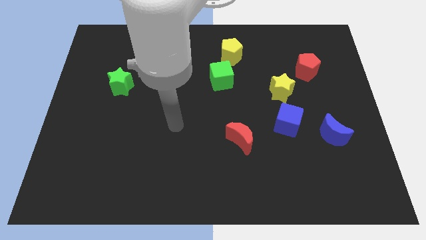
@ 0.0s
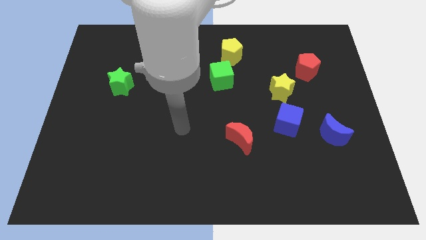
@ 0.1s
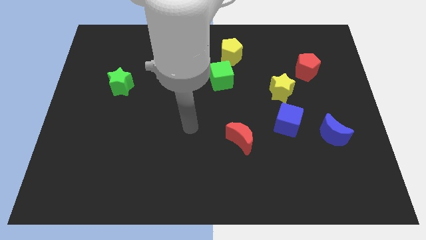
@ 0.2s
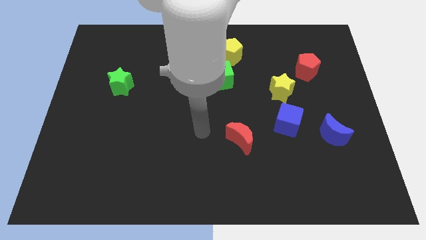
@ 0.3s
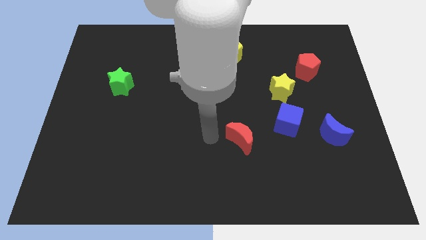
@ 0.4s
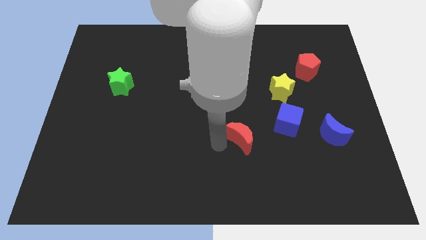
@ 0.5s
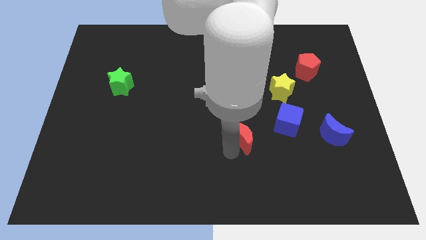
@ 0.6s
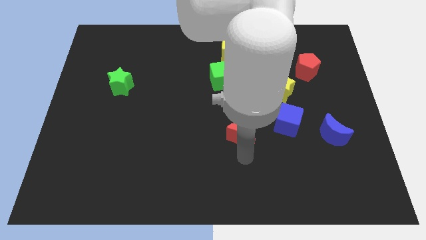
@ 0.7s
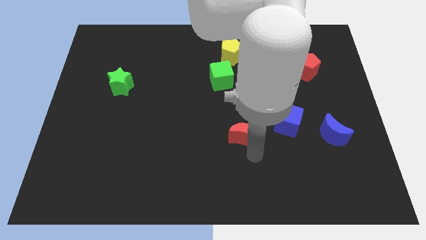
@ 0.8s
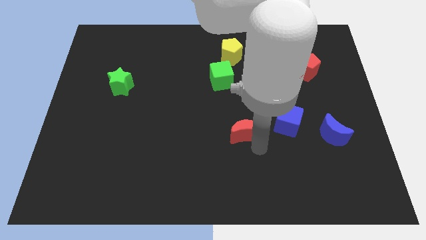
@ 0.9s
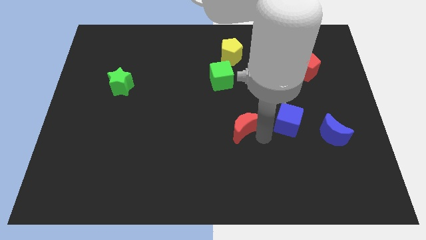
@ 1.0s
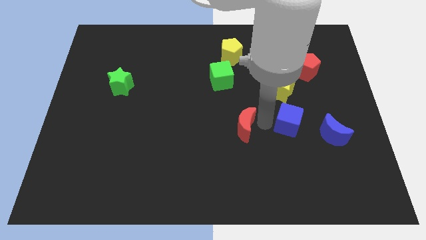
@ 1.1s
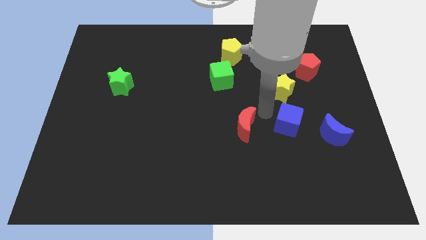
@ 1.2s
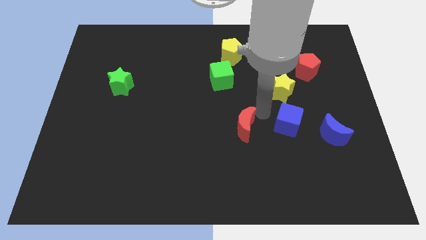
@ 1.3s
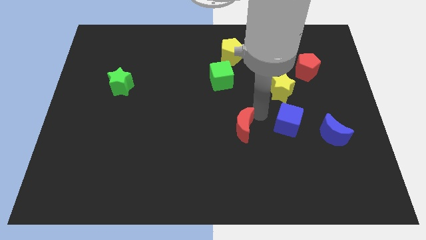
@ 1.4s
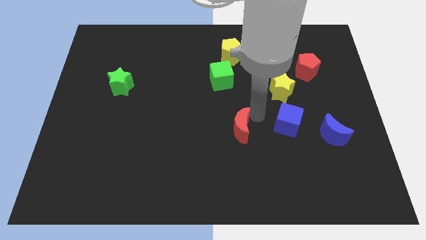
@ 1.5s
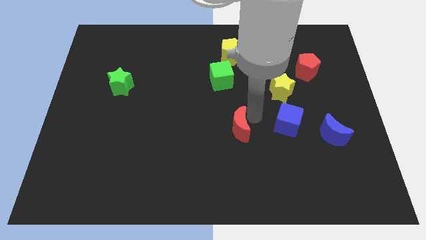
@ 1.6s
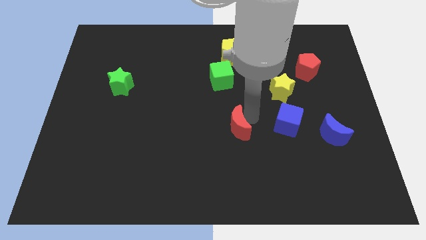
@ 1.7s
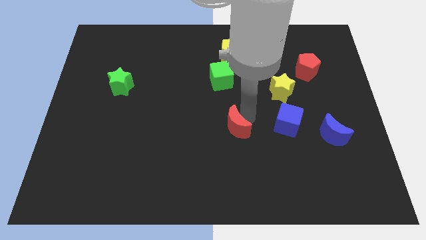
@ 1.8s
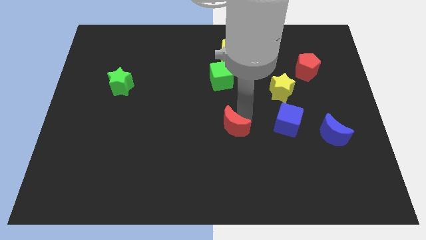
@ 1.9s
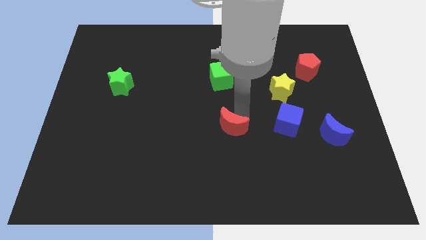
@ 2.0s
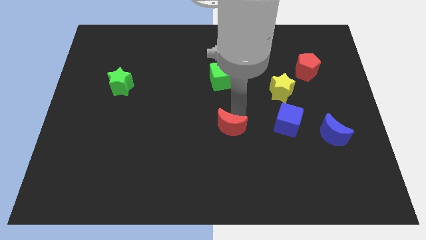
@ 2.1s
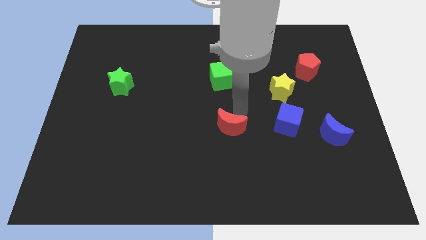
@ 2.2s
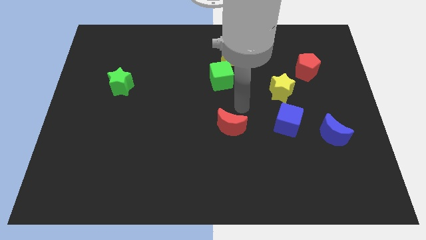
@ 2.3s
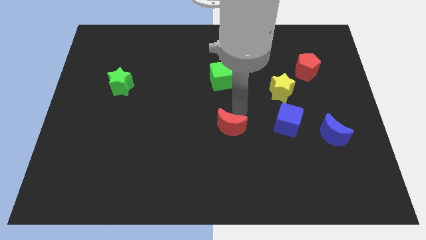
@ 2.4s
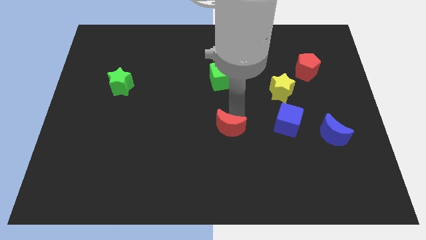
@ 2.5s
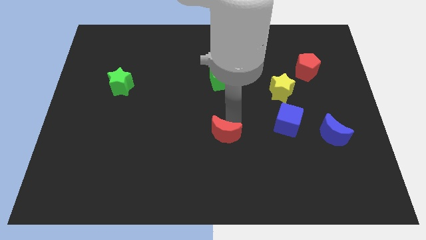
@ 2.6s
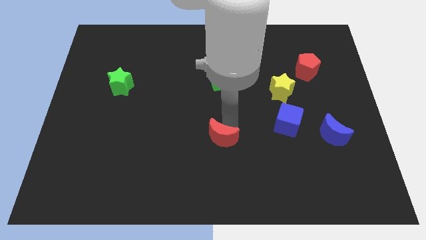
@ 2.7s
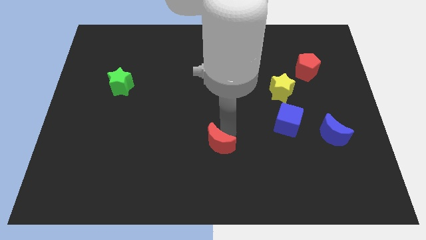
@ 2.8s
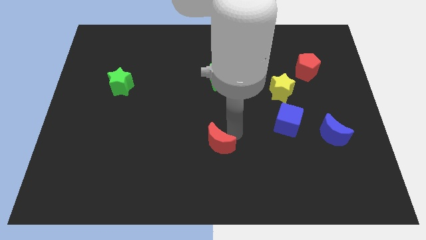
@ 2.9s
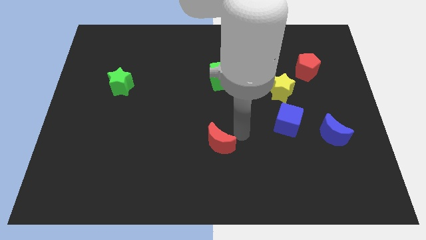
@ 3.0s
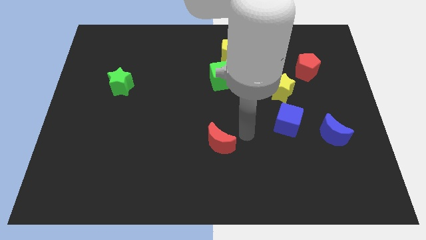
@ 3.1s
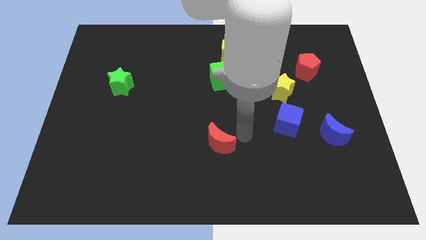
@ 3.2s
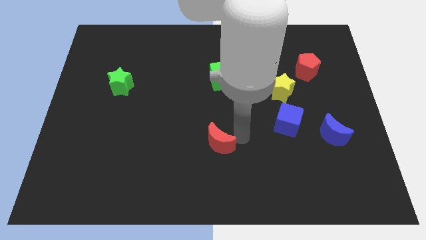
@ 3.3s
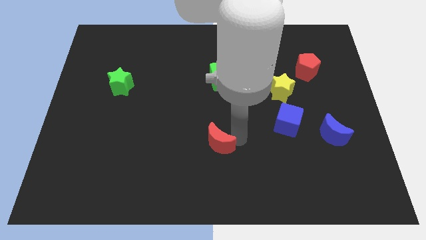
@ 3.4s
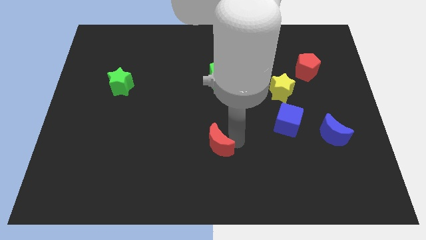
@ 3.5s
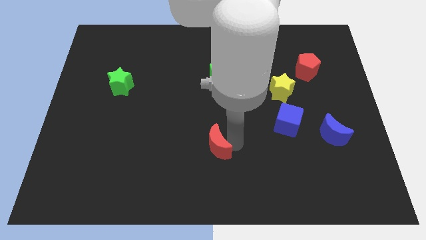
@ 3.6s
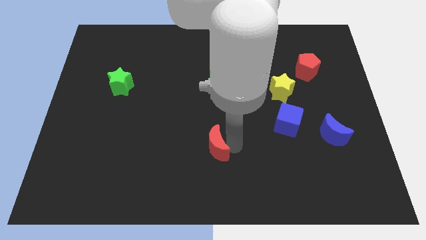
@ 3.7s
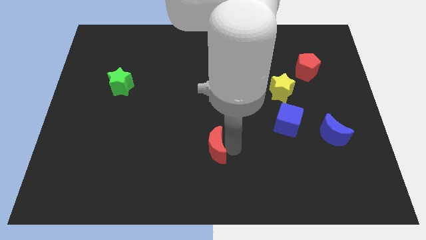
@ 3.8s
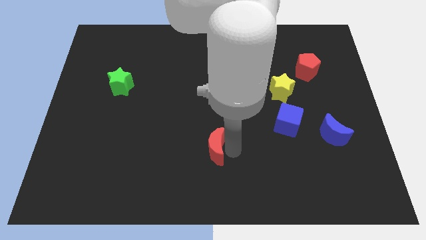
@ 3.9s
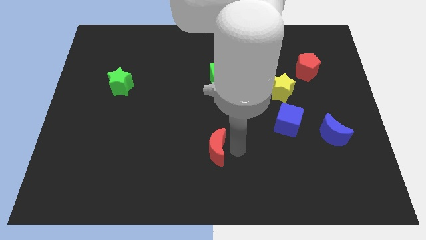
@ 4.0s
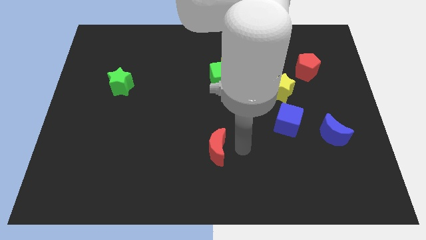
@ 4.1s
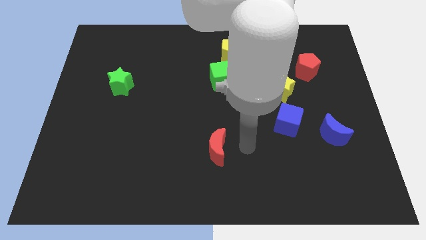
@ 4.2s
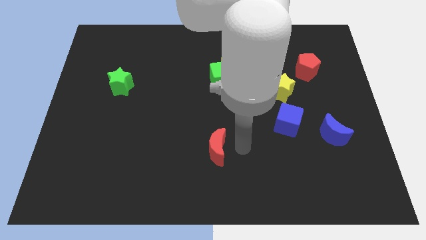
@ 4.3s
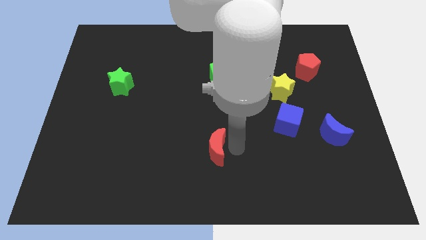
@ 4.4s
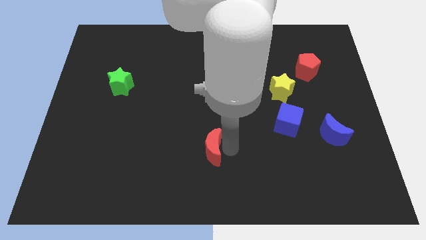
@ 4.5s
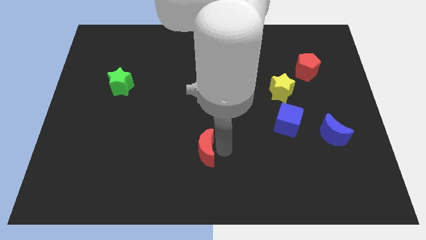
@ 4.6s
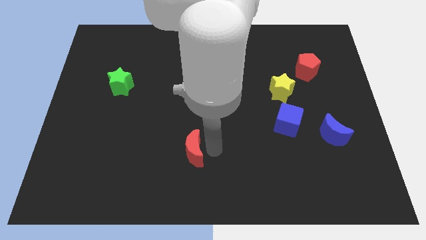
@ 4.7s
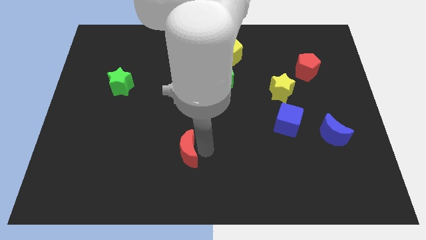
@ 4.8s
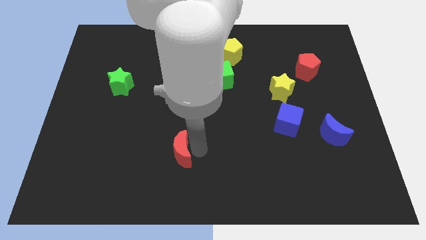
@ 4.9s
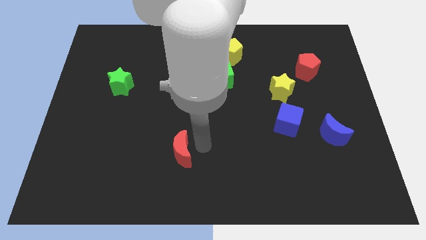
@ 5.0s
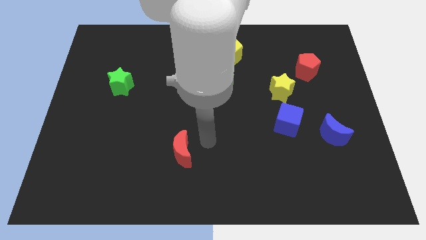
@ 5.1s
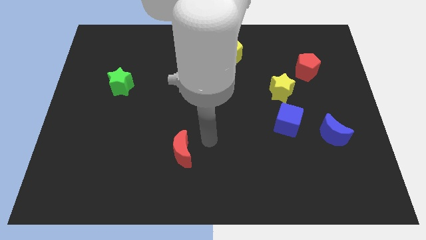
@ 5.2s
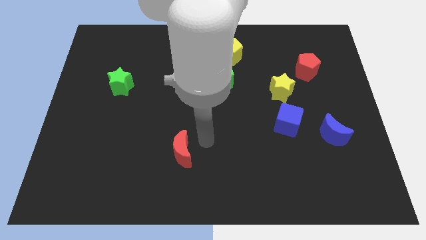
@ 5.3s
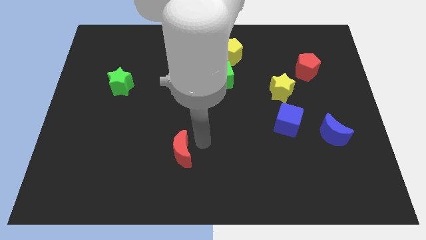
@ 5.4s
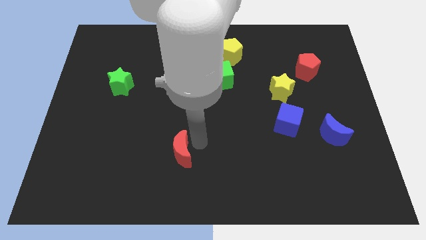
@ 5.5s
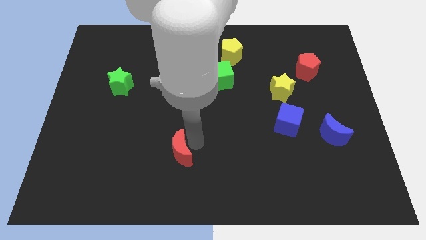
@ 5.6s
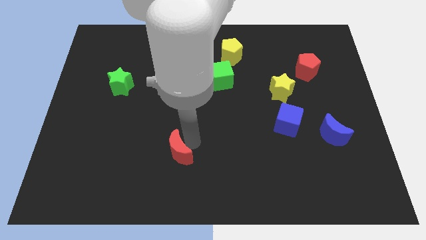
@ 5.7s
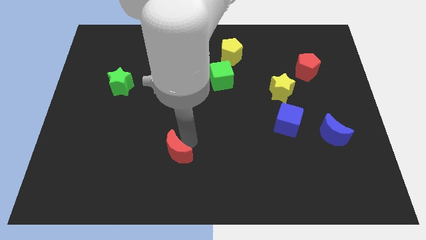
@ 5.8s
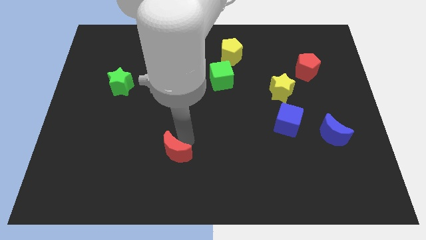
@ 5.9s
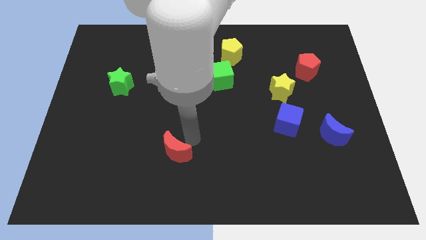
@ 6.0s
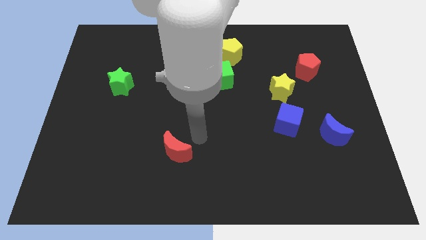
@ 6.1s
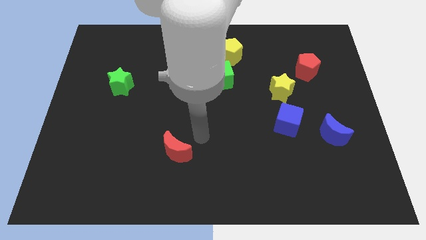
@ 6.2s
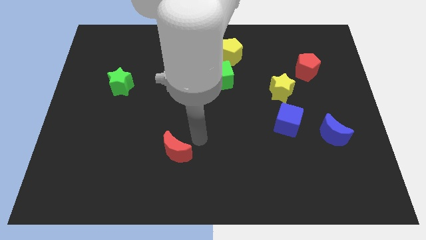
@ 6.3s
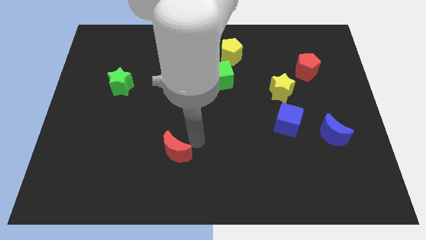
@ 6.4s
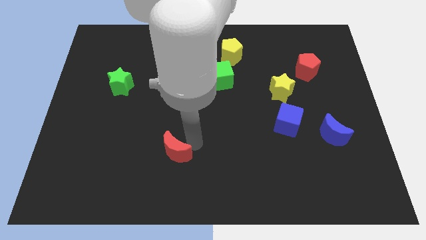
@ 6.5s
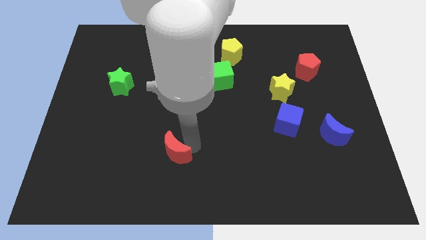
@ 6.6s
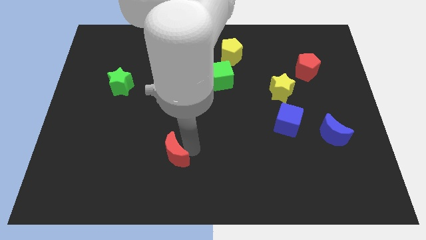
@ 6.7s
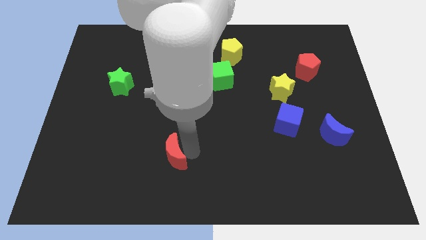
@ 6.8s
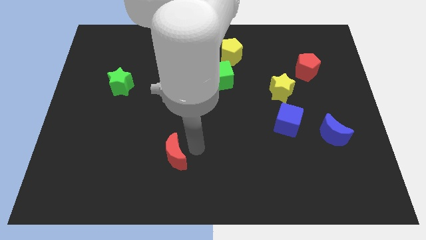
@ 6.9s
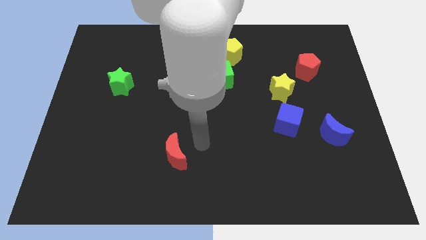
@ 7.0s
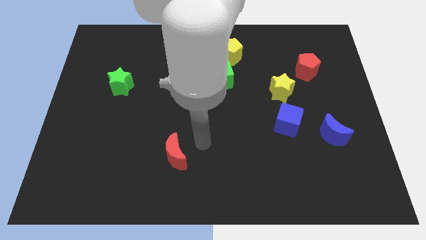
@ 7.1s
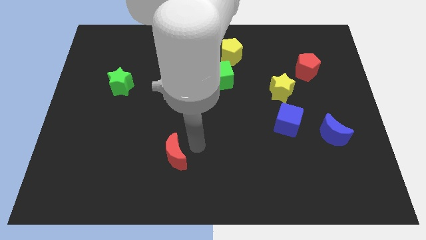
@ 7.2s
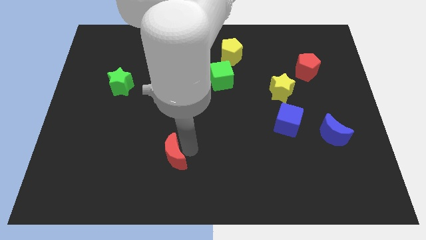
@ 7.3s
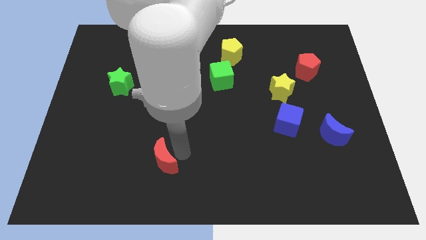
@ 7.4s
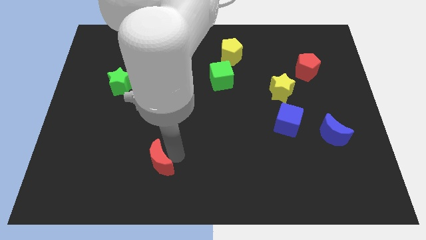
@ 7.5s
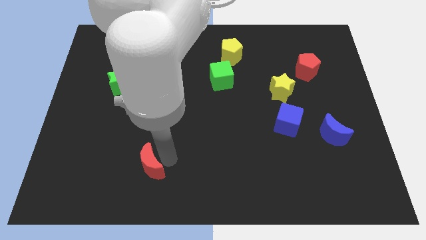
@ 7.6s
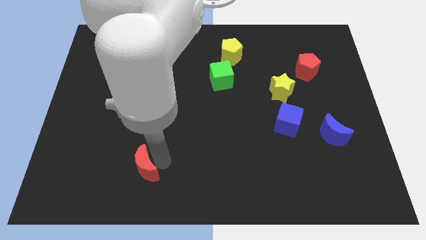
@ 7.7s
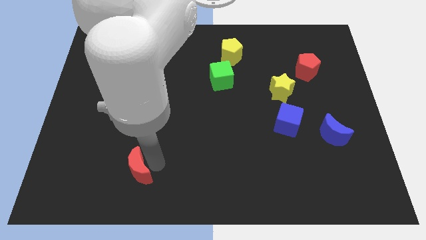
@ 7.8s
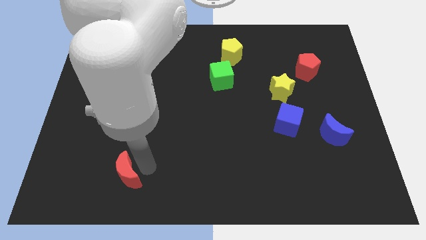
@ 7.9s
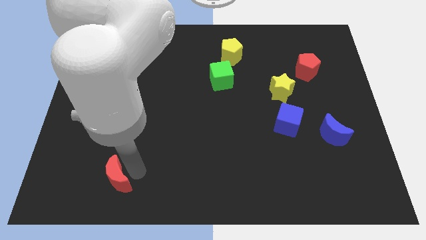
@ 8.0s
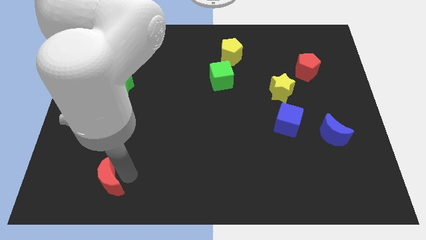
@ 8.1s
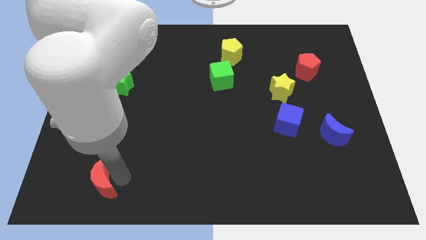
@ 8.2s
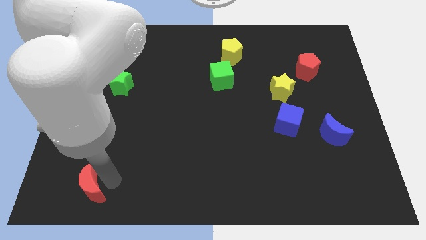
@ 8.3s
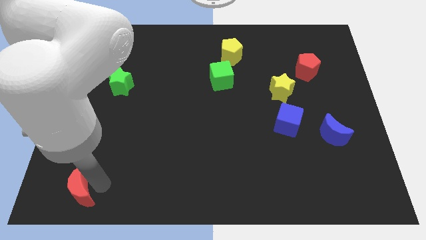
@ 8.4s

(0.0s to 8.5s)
slide the red moon to the bottom left of the board
